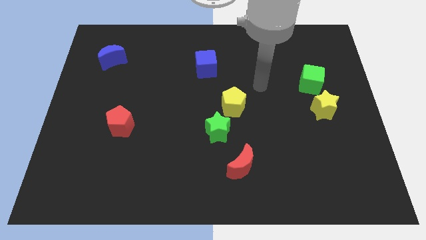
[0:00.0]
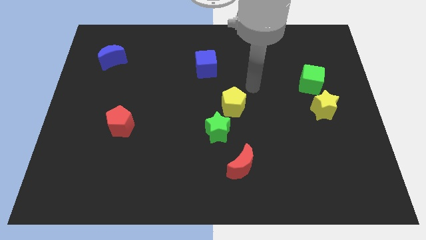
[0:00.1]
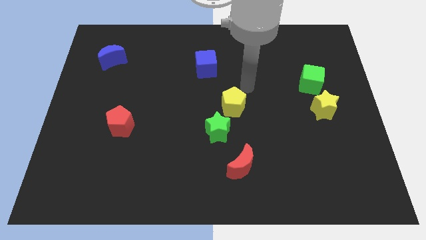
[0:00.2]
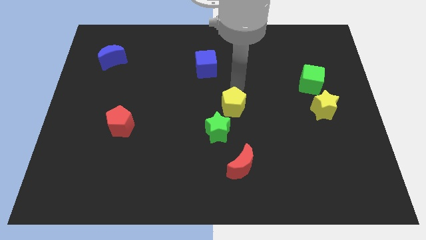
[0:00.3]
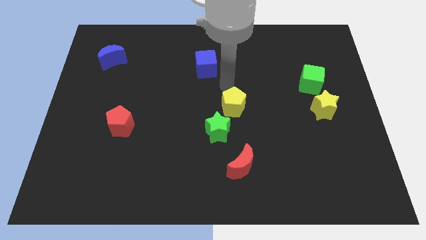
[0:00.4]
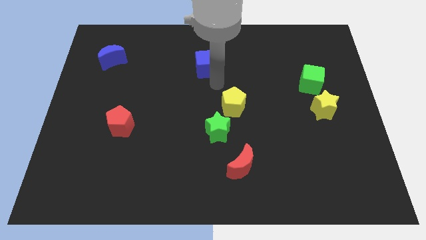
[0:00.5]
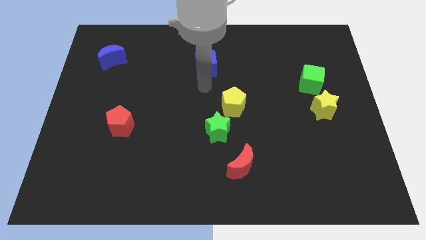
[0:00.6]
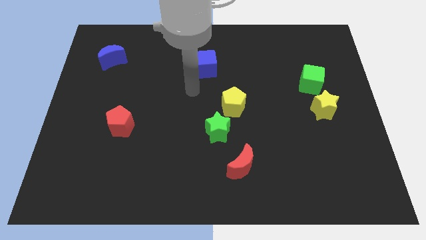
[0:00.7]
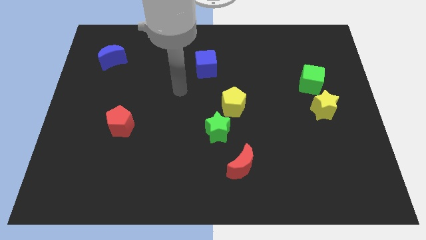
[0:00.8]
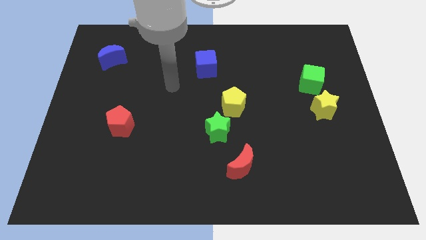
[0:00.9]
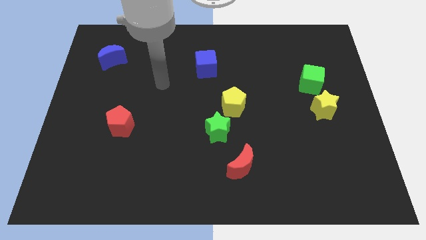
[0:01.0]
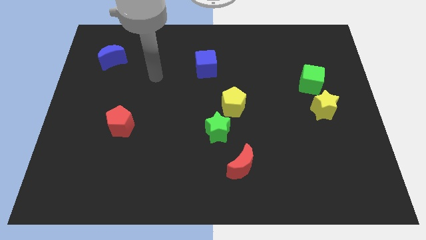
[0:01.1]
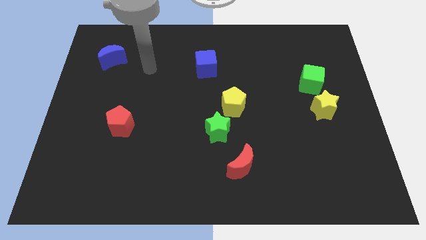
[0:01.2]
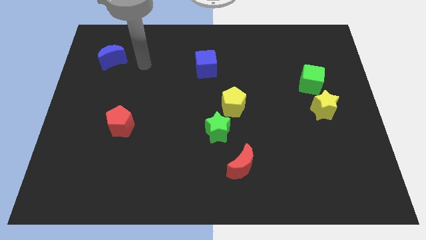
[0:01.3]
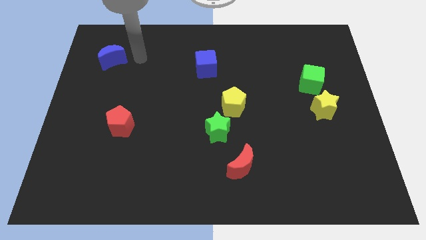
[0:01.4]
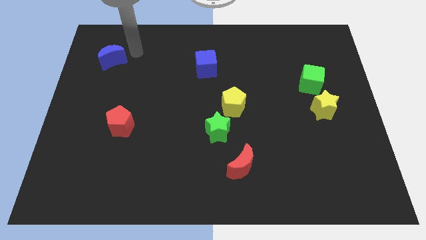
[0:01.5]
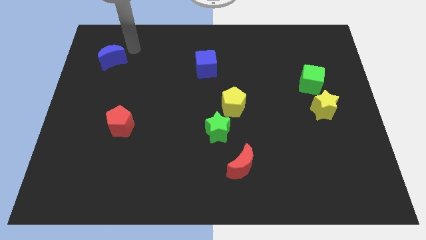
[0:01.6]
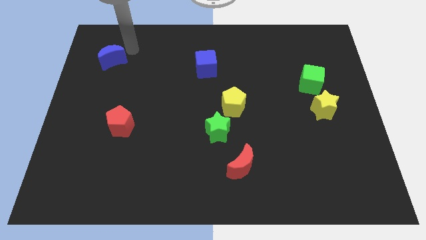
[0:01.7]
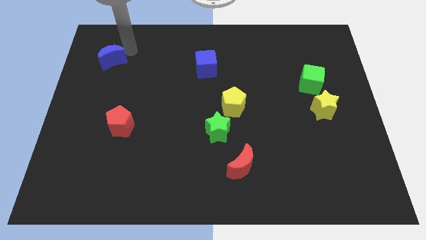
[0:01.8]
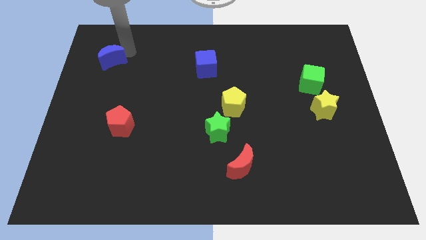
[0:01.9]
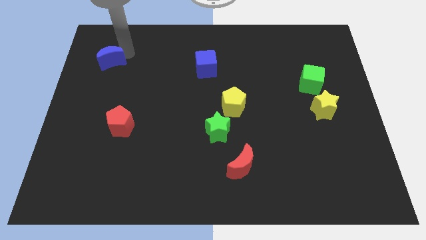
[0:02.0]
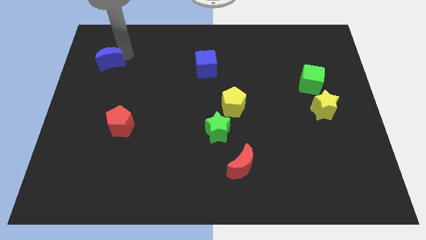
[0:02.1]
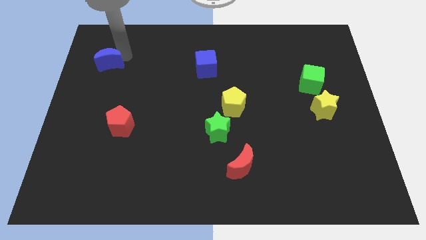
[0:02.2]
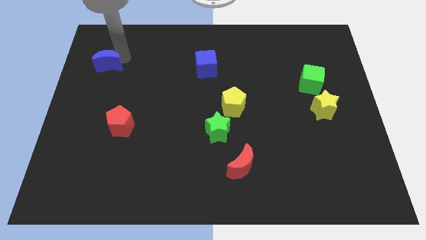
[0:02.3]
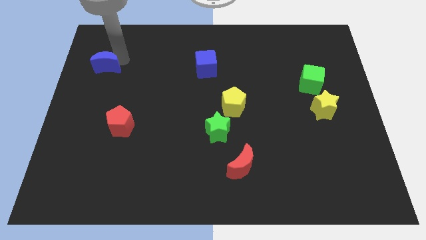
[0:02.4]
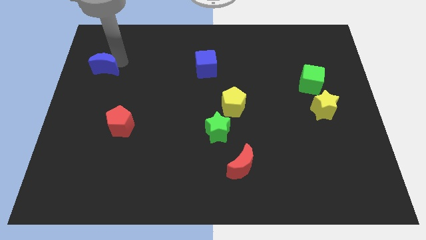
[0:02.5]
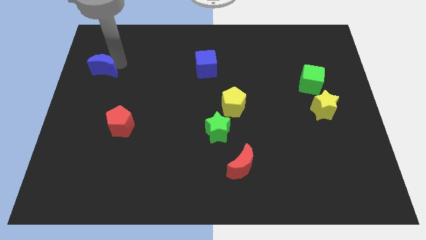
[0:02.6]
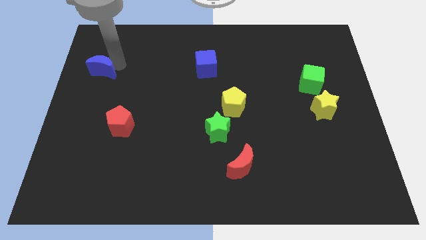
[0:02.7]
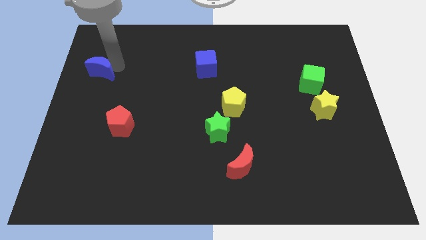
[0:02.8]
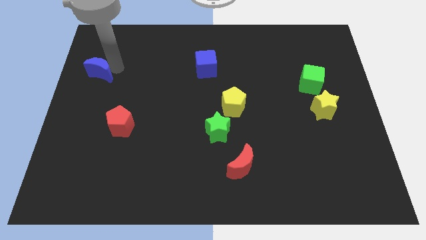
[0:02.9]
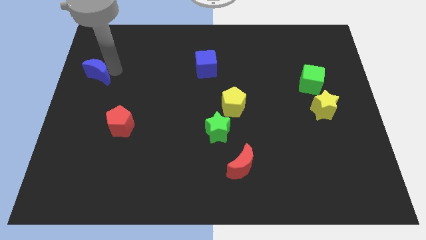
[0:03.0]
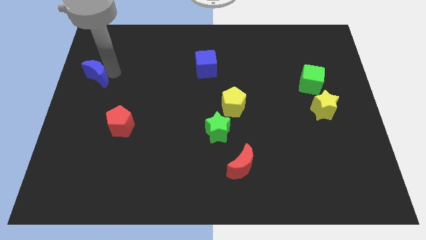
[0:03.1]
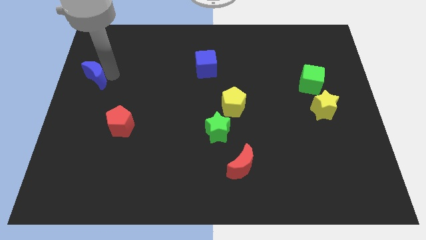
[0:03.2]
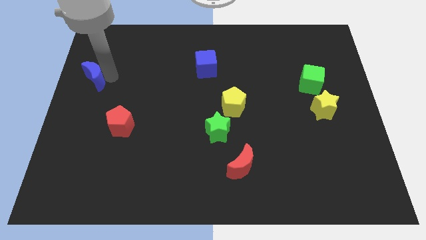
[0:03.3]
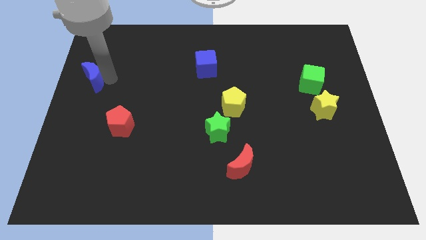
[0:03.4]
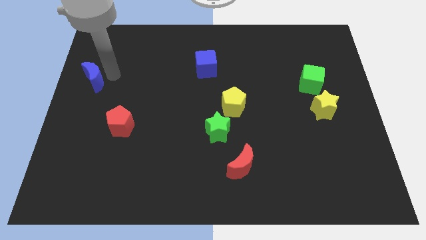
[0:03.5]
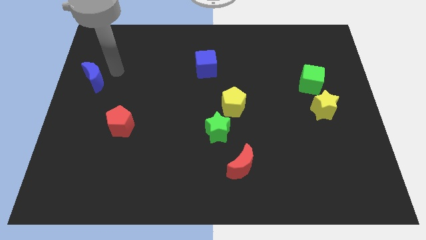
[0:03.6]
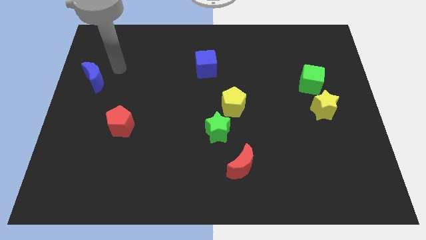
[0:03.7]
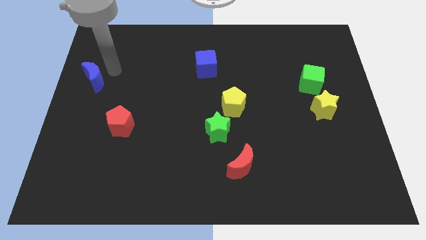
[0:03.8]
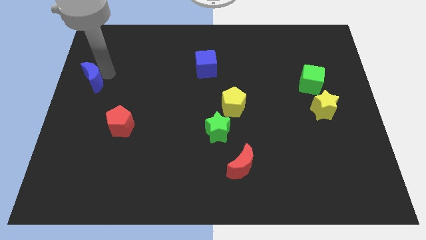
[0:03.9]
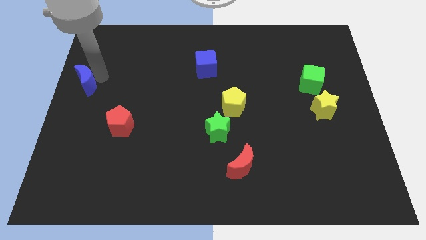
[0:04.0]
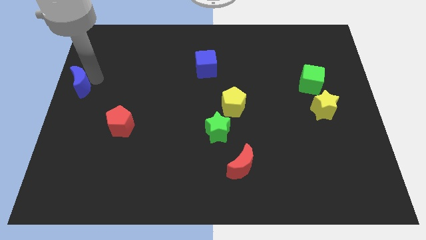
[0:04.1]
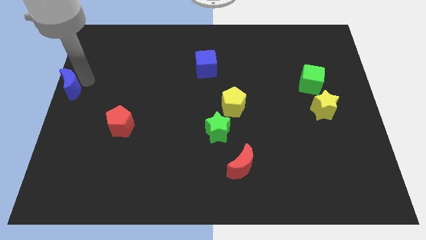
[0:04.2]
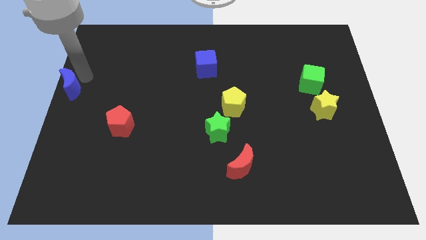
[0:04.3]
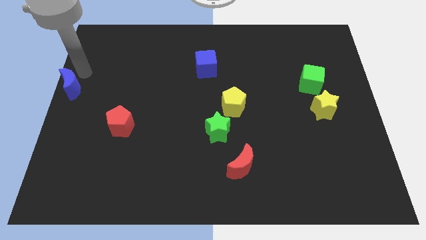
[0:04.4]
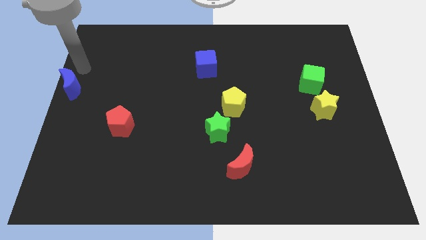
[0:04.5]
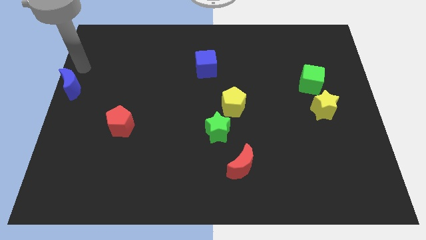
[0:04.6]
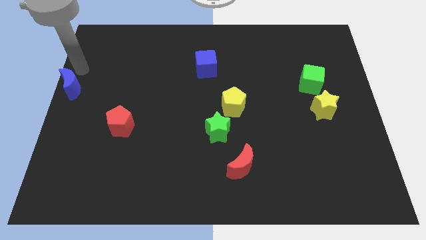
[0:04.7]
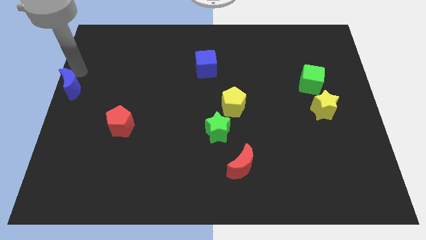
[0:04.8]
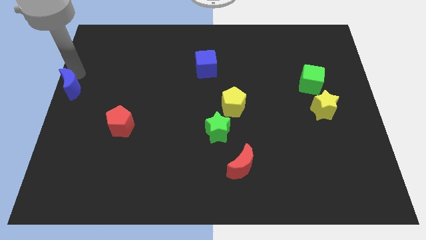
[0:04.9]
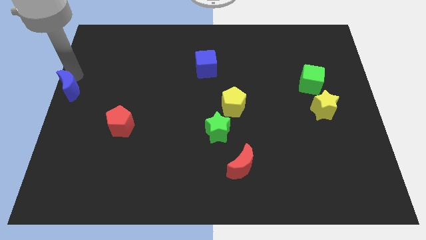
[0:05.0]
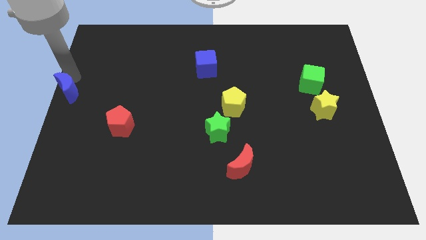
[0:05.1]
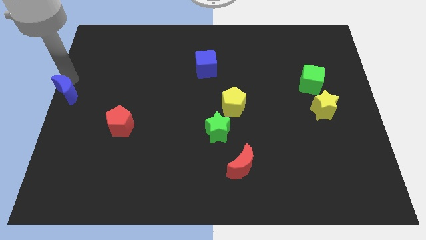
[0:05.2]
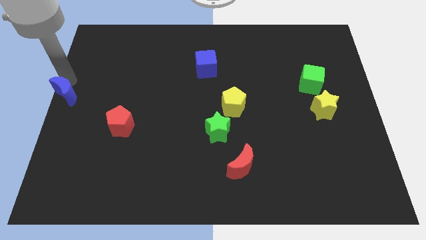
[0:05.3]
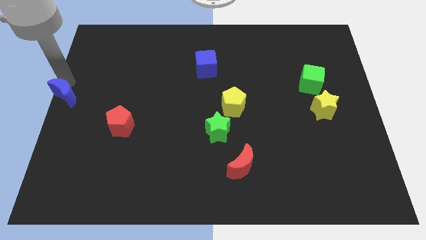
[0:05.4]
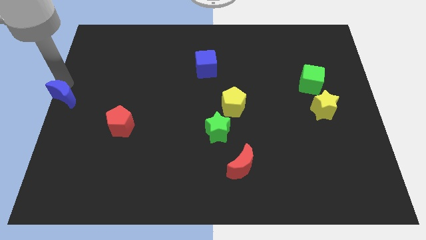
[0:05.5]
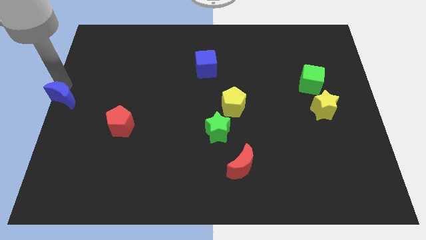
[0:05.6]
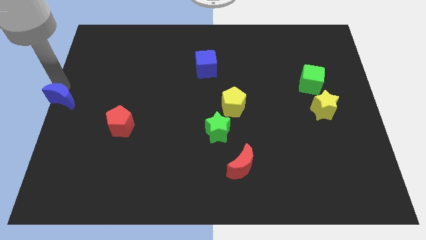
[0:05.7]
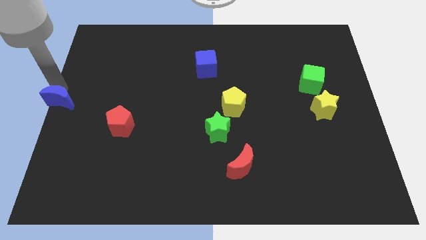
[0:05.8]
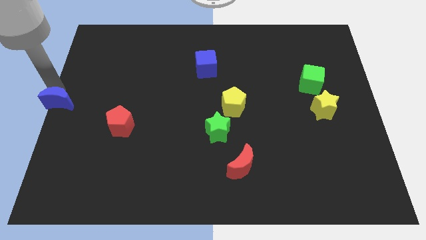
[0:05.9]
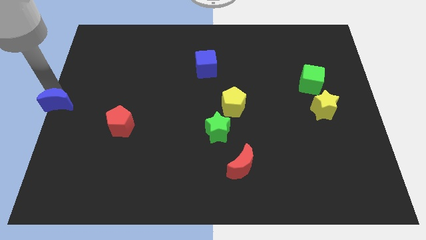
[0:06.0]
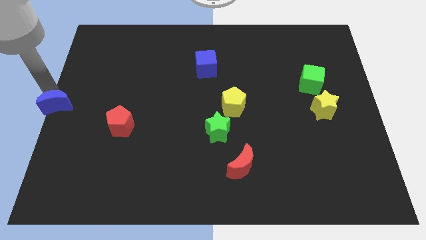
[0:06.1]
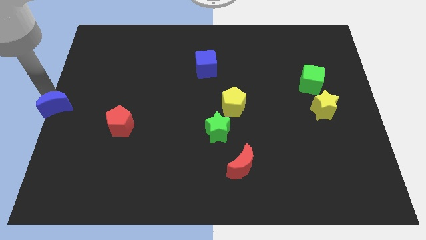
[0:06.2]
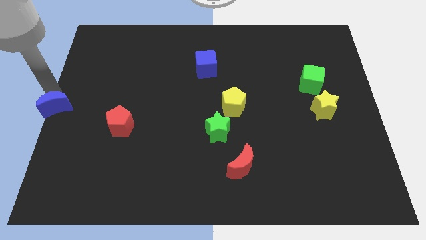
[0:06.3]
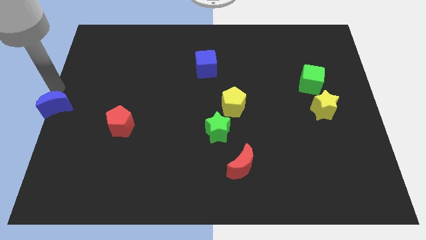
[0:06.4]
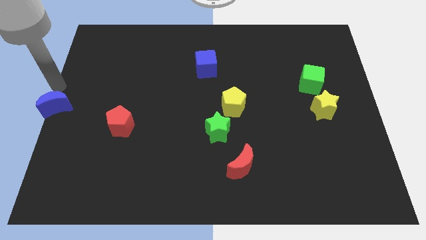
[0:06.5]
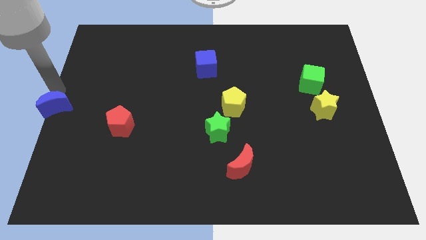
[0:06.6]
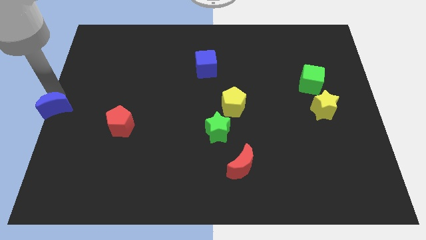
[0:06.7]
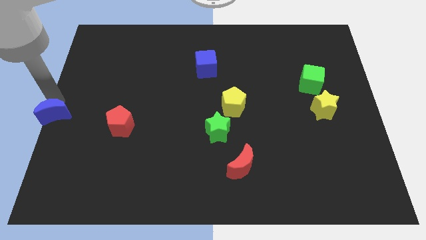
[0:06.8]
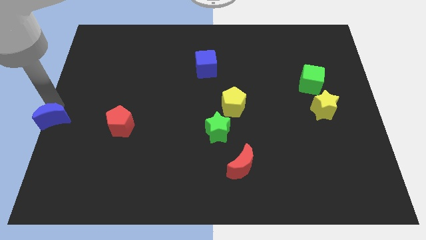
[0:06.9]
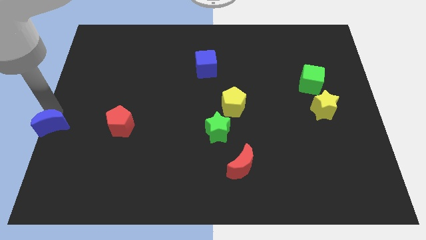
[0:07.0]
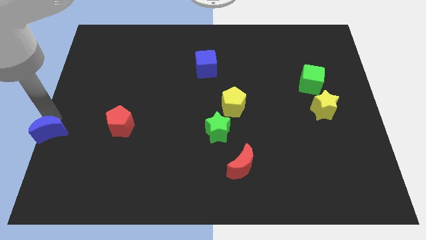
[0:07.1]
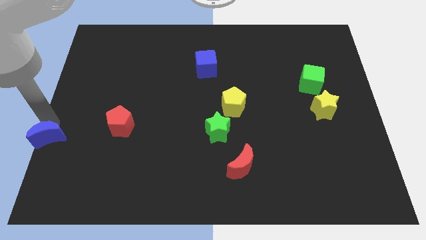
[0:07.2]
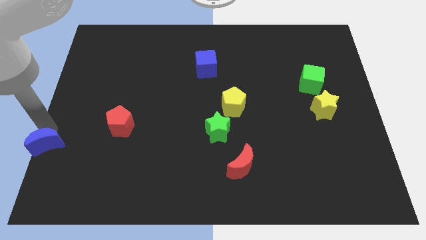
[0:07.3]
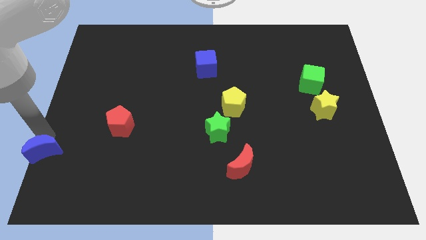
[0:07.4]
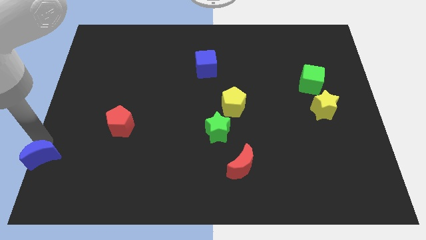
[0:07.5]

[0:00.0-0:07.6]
slide the blue moon to the lower left corner
